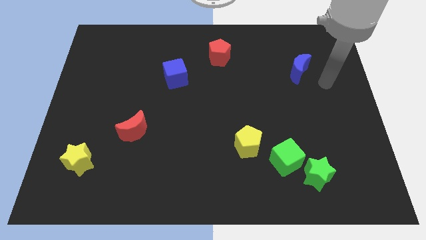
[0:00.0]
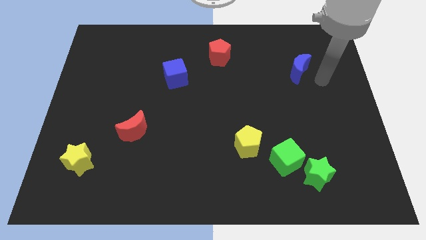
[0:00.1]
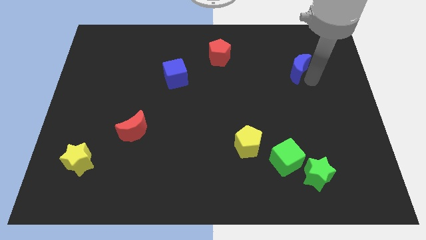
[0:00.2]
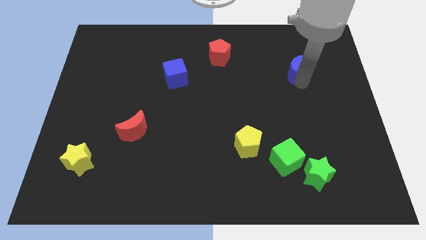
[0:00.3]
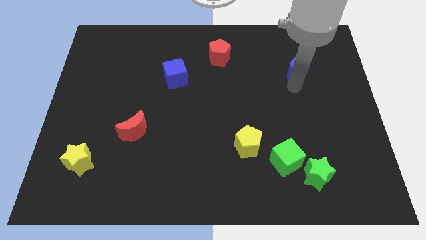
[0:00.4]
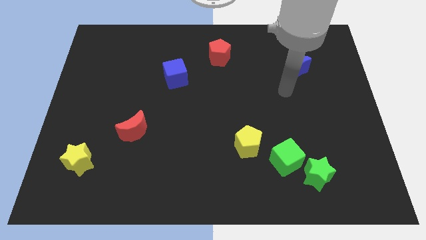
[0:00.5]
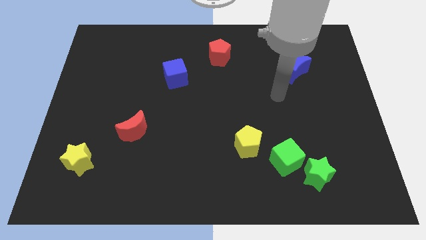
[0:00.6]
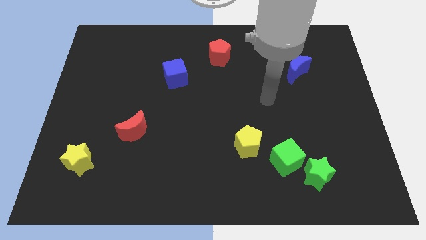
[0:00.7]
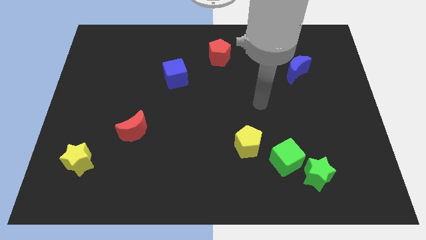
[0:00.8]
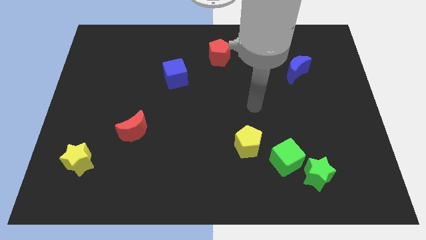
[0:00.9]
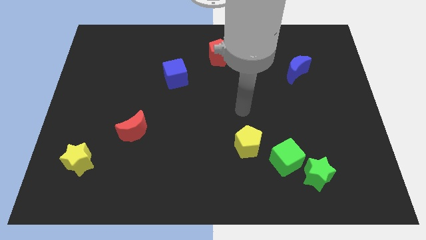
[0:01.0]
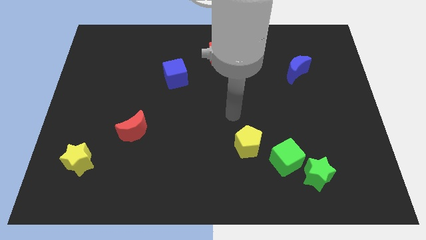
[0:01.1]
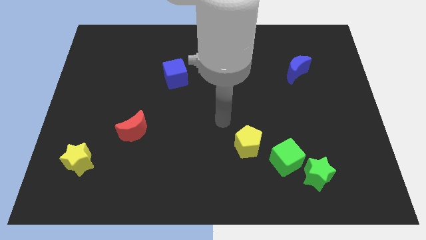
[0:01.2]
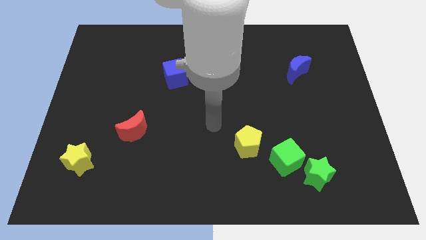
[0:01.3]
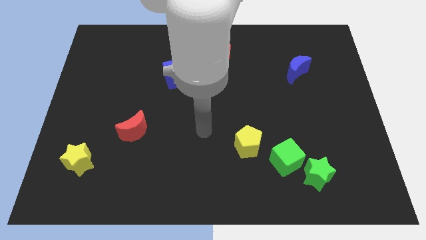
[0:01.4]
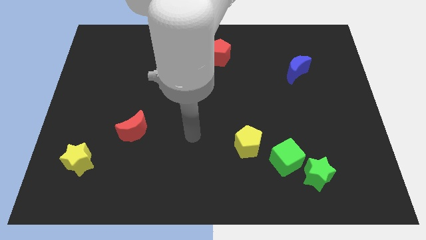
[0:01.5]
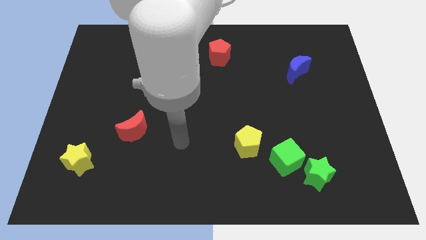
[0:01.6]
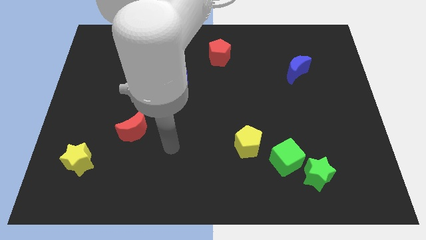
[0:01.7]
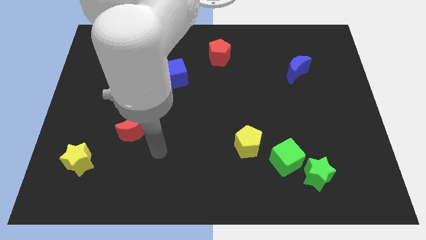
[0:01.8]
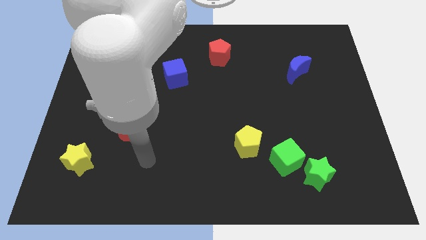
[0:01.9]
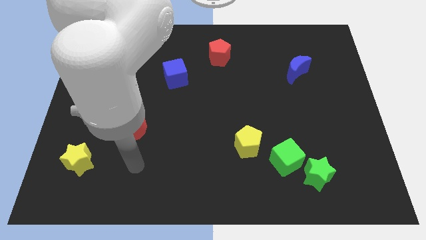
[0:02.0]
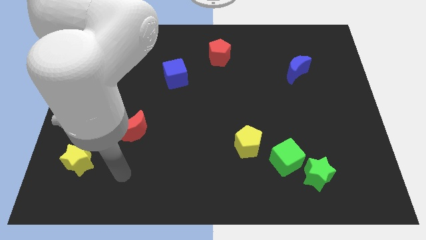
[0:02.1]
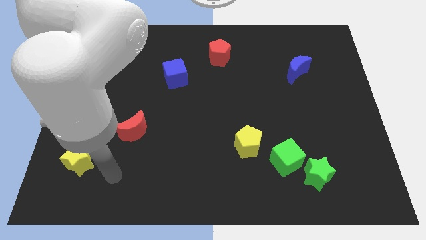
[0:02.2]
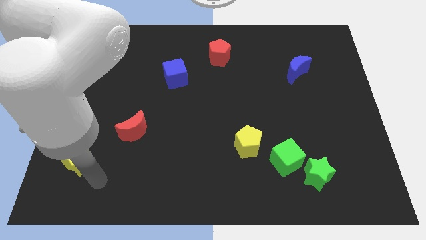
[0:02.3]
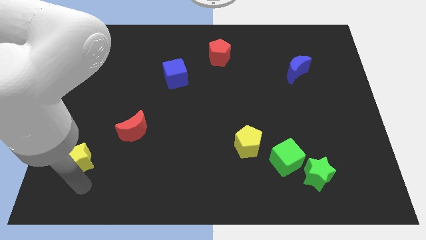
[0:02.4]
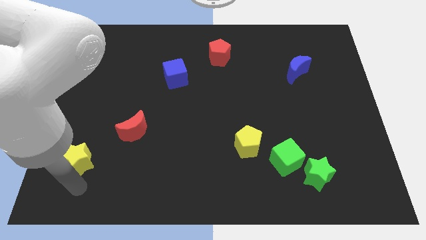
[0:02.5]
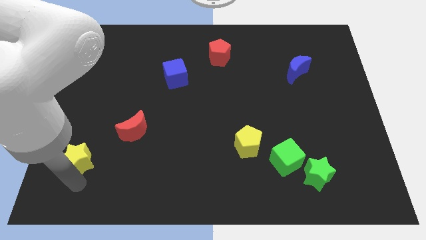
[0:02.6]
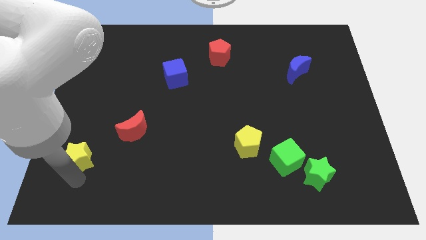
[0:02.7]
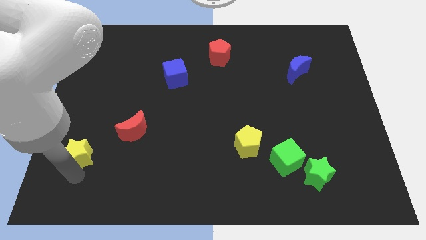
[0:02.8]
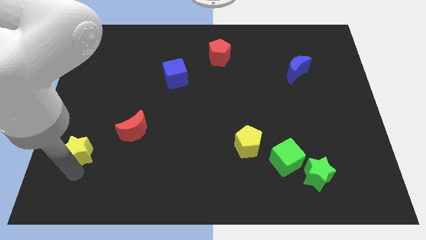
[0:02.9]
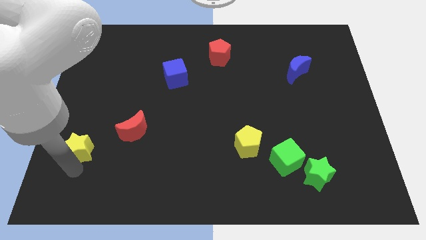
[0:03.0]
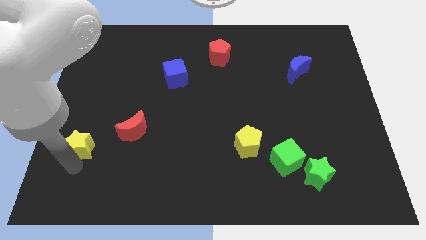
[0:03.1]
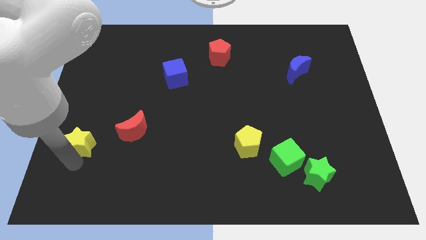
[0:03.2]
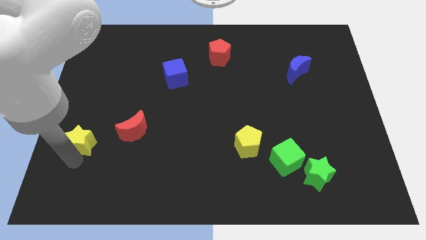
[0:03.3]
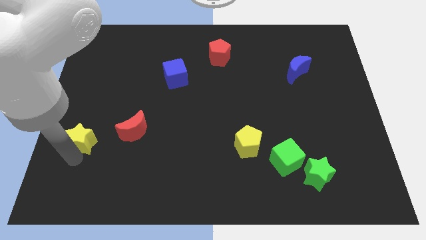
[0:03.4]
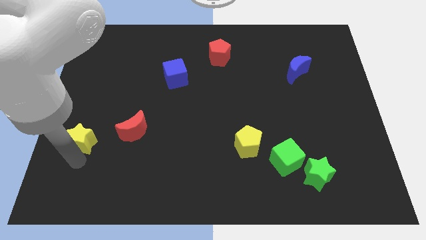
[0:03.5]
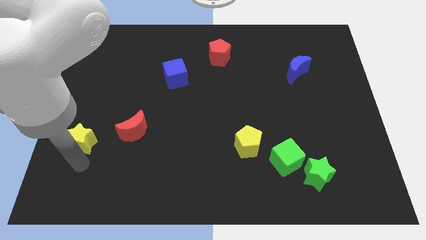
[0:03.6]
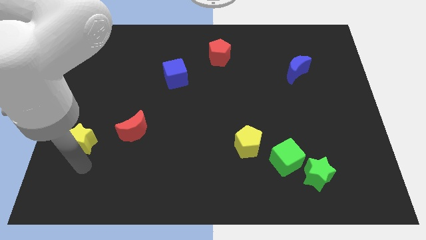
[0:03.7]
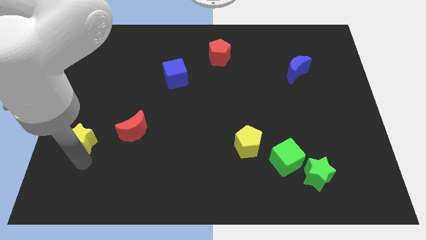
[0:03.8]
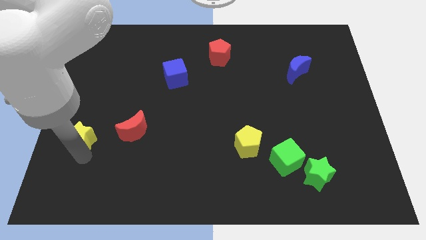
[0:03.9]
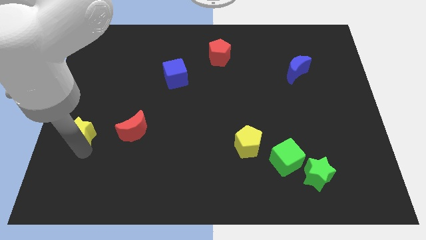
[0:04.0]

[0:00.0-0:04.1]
move the yellow star slightly upwards

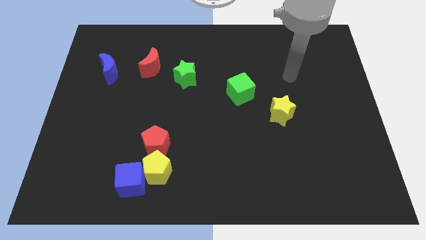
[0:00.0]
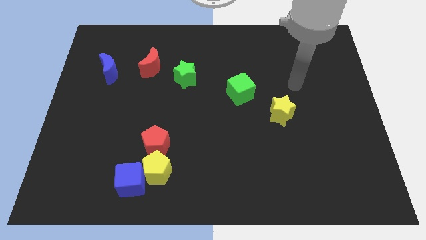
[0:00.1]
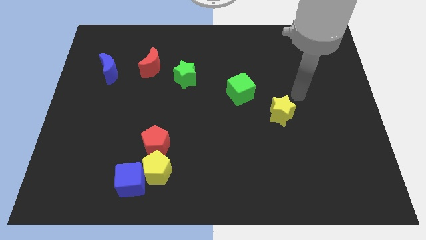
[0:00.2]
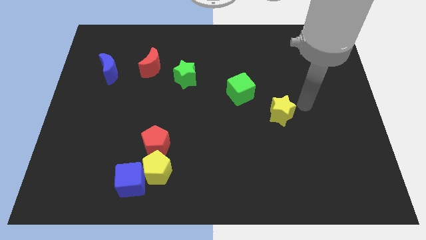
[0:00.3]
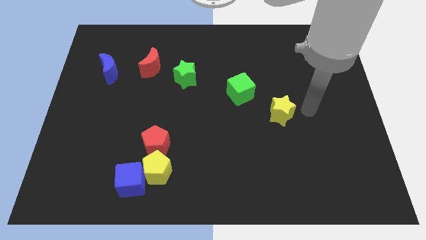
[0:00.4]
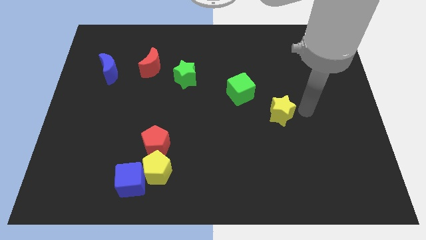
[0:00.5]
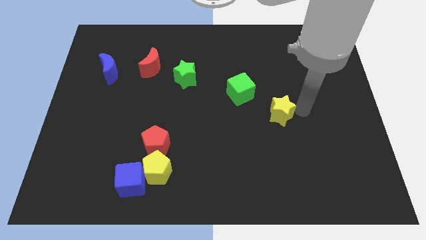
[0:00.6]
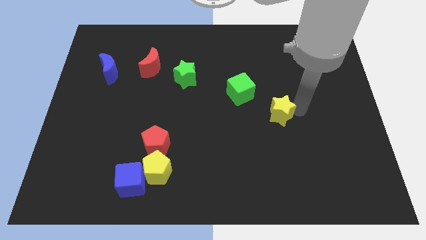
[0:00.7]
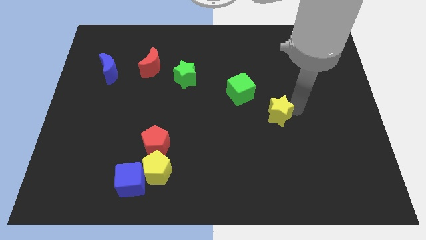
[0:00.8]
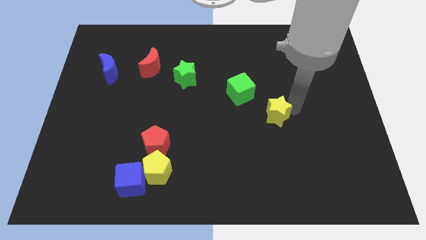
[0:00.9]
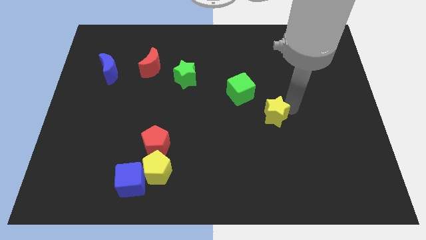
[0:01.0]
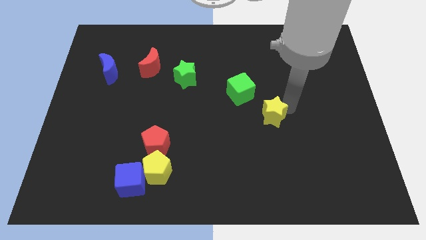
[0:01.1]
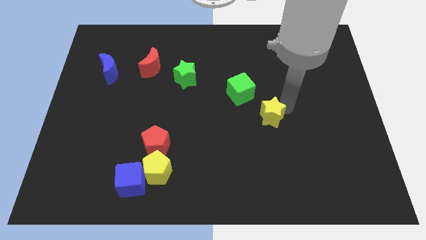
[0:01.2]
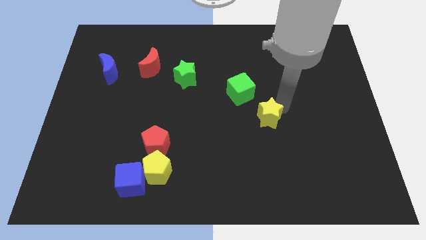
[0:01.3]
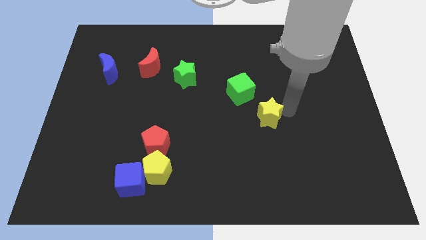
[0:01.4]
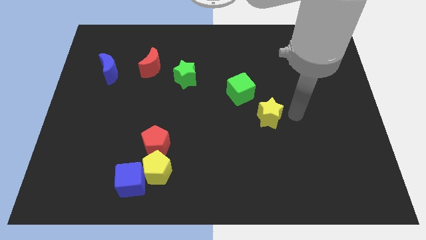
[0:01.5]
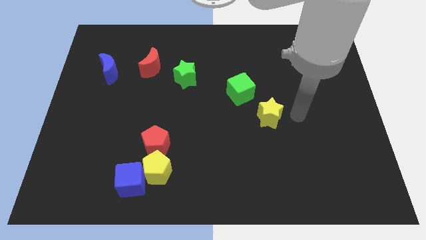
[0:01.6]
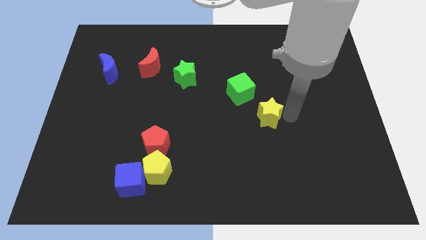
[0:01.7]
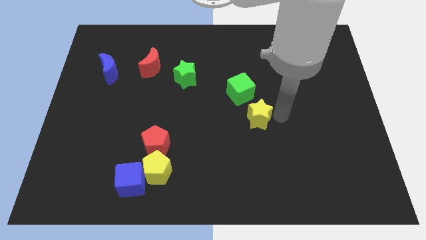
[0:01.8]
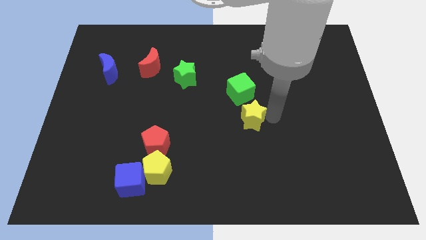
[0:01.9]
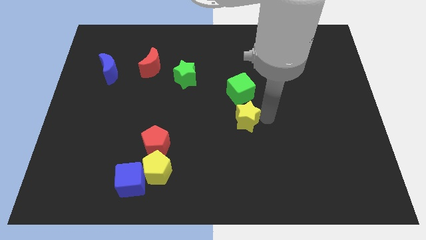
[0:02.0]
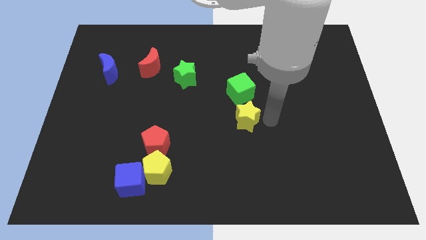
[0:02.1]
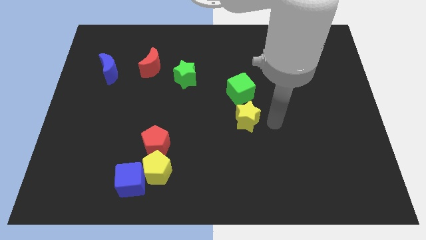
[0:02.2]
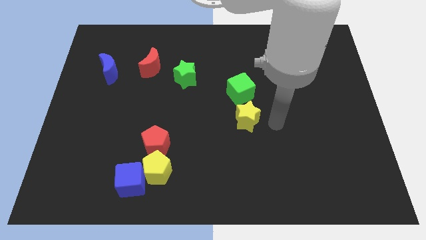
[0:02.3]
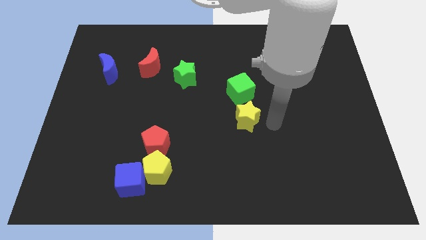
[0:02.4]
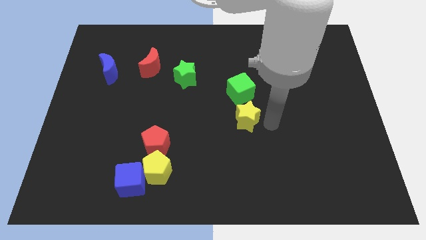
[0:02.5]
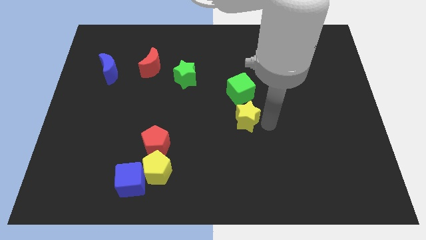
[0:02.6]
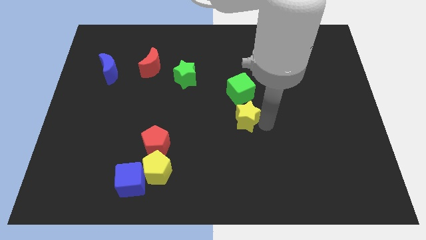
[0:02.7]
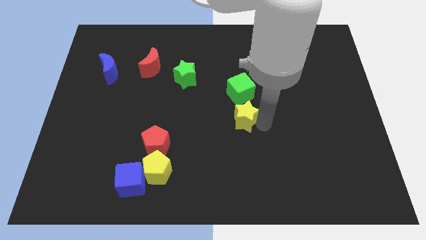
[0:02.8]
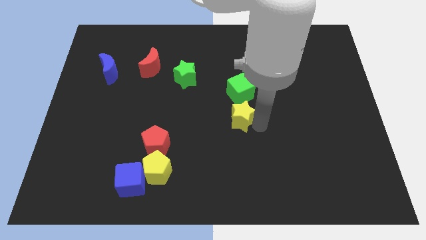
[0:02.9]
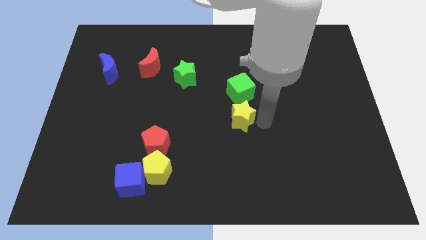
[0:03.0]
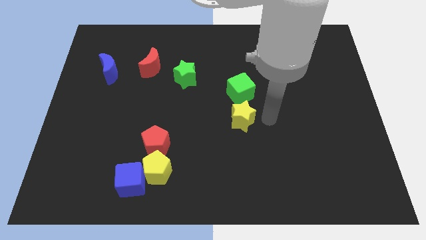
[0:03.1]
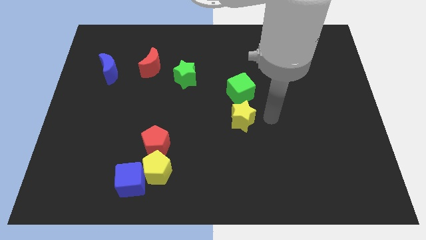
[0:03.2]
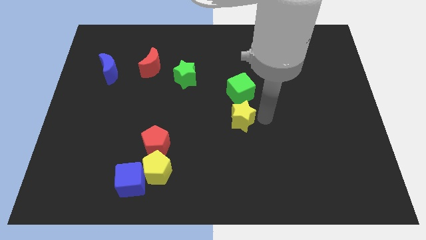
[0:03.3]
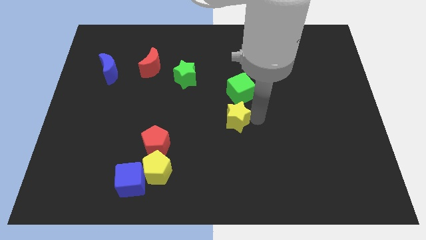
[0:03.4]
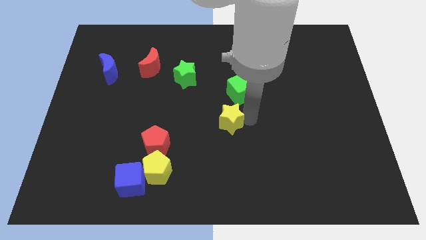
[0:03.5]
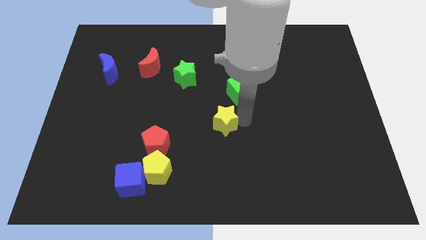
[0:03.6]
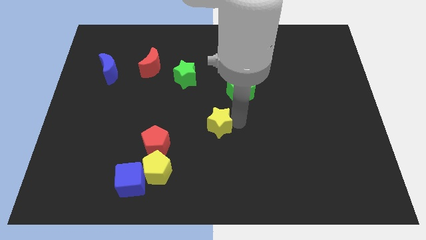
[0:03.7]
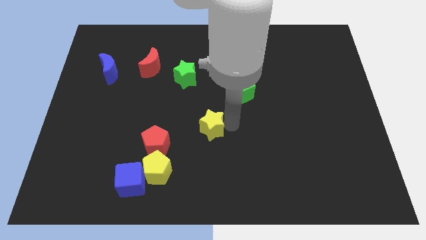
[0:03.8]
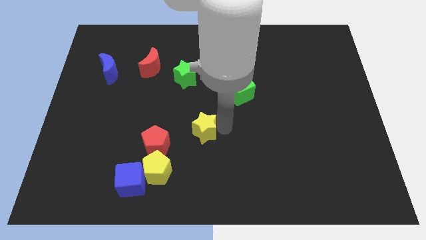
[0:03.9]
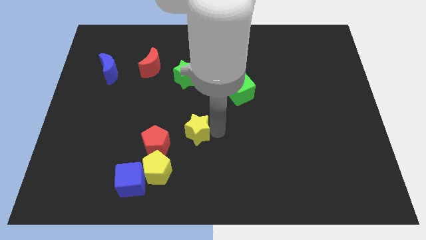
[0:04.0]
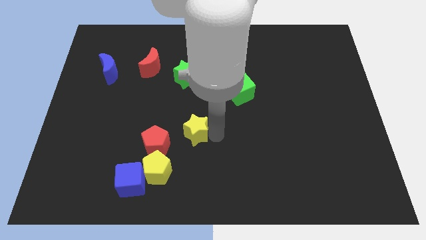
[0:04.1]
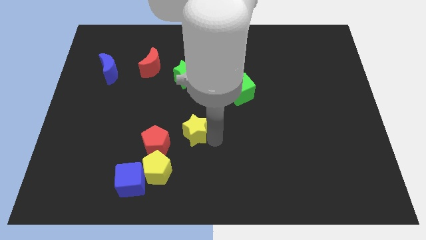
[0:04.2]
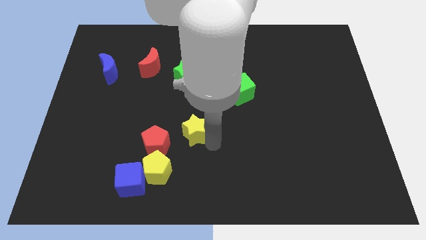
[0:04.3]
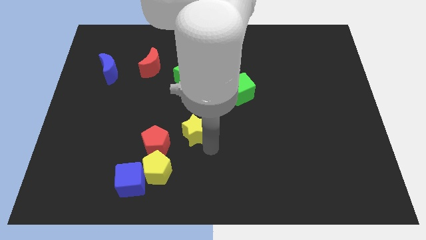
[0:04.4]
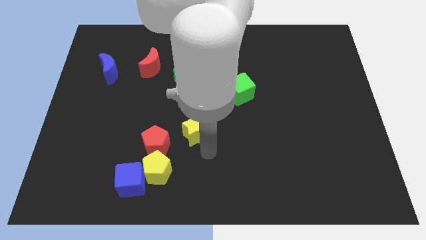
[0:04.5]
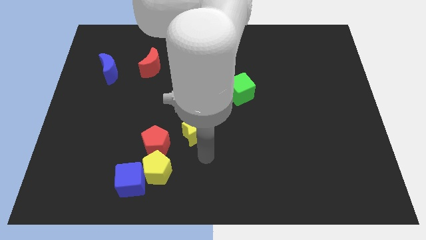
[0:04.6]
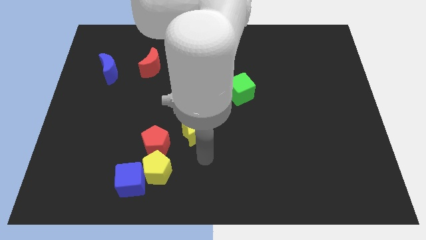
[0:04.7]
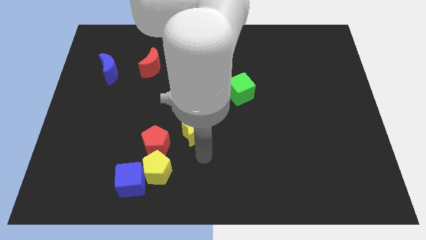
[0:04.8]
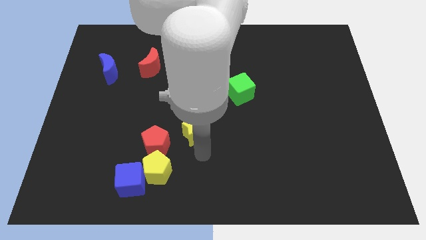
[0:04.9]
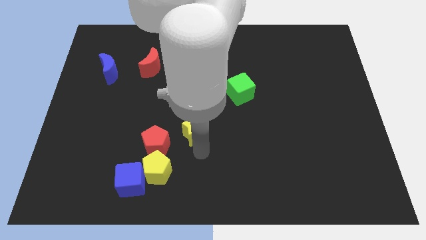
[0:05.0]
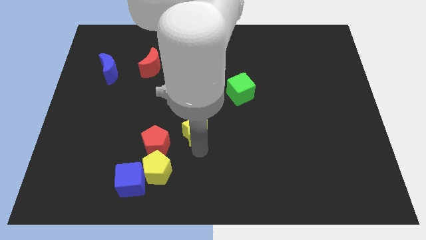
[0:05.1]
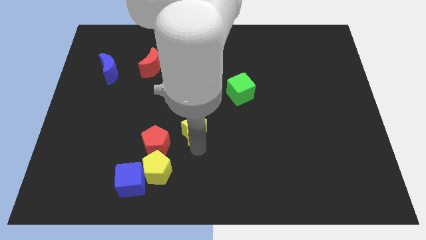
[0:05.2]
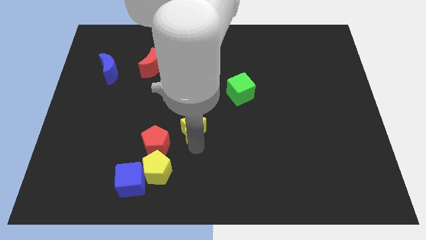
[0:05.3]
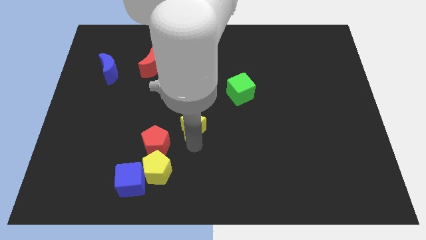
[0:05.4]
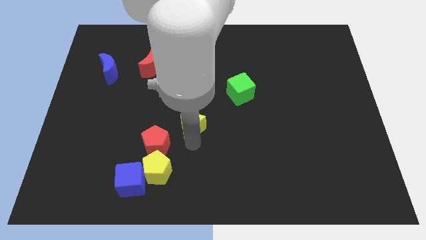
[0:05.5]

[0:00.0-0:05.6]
push the yellow star to the left
